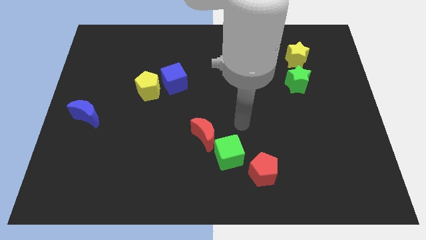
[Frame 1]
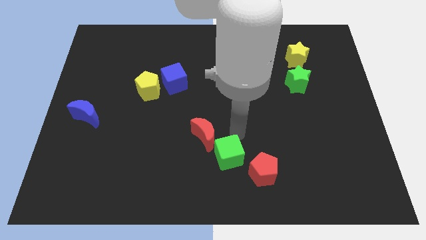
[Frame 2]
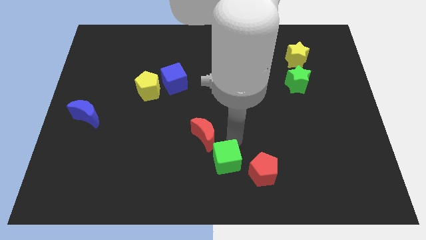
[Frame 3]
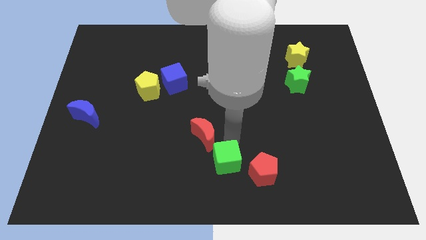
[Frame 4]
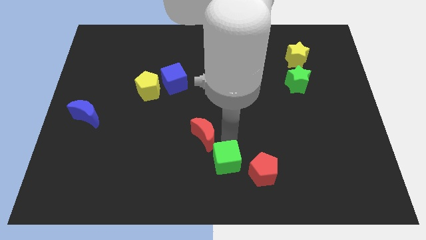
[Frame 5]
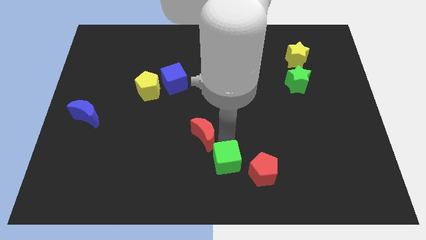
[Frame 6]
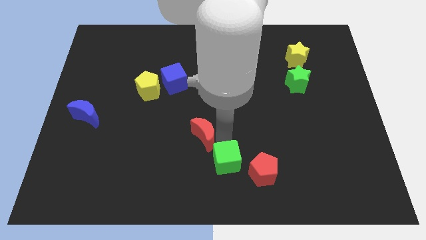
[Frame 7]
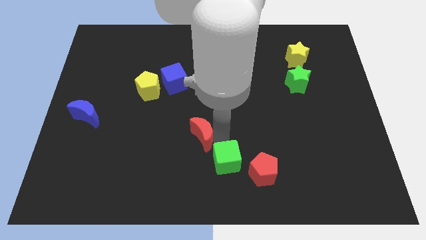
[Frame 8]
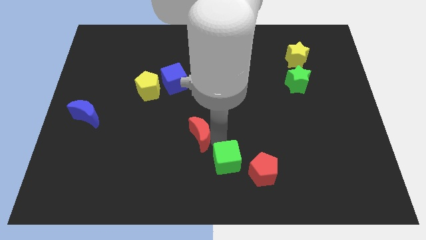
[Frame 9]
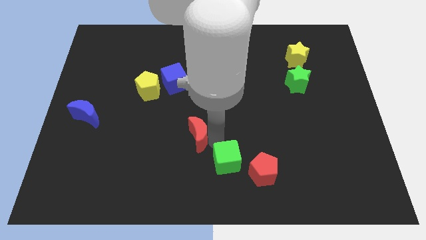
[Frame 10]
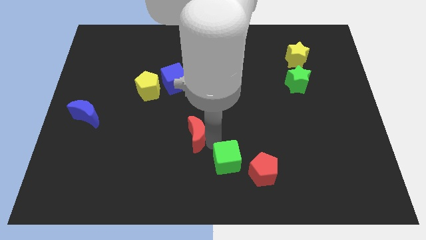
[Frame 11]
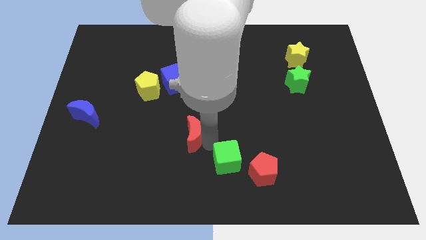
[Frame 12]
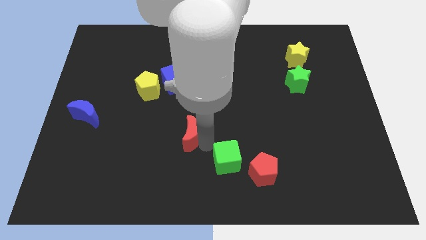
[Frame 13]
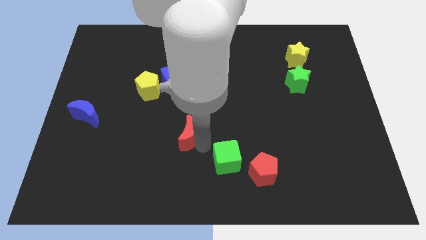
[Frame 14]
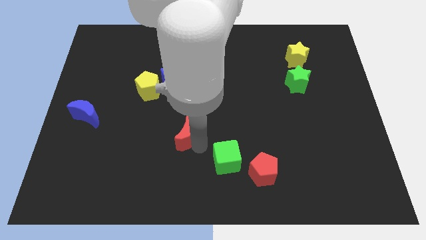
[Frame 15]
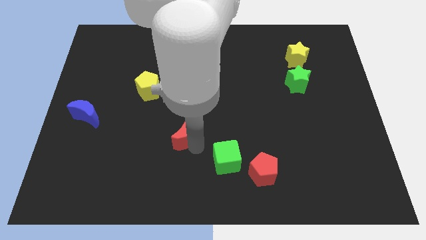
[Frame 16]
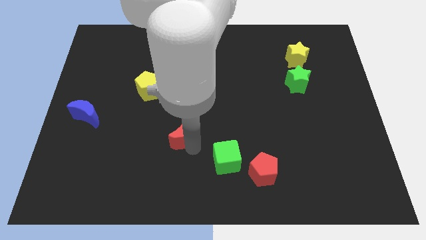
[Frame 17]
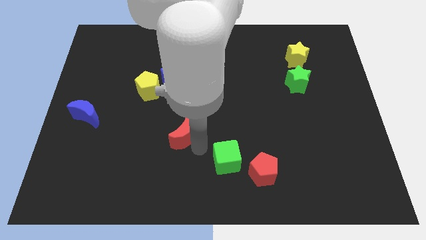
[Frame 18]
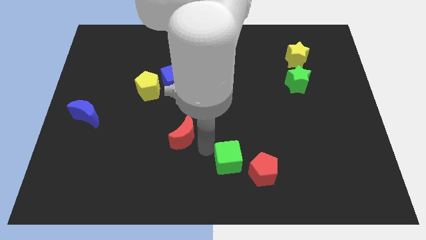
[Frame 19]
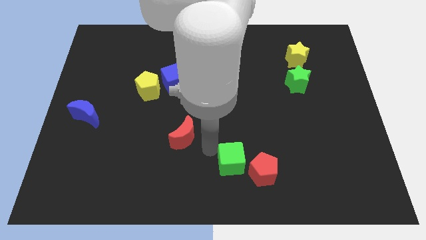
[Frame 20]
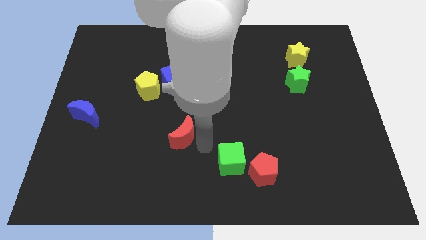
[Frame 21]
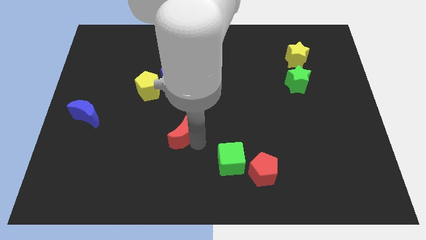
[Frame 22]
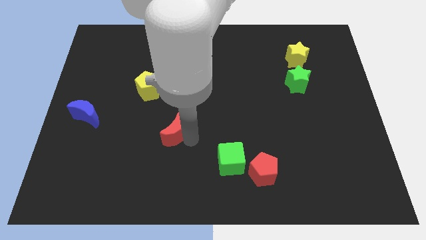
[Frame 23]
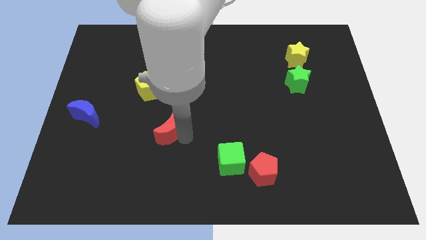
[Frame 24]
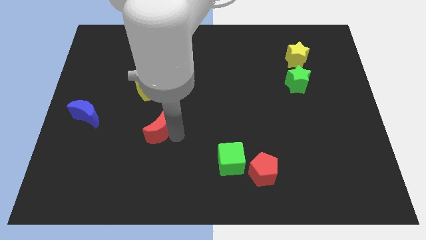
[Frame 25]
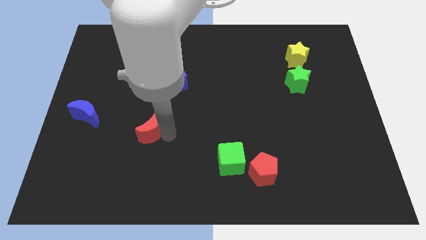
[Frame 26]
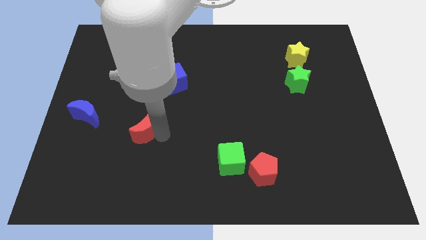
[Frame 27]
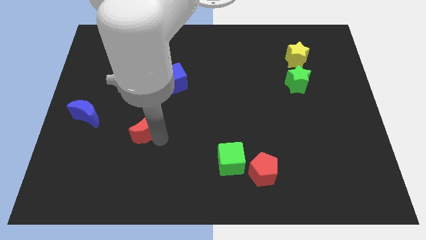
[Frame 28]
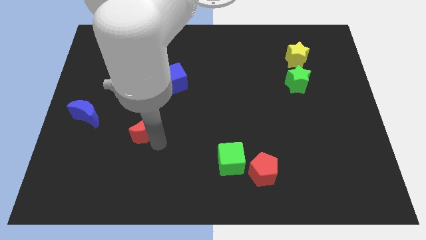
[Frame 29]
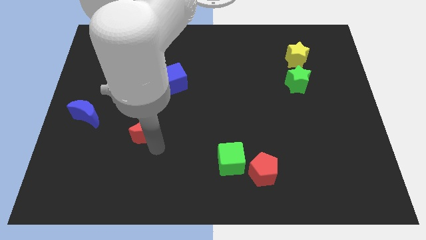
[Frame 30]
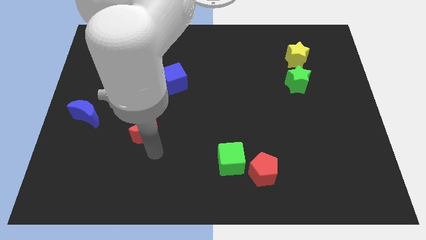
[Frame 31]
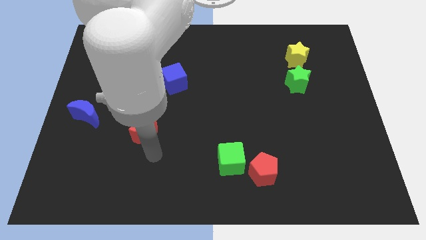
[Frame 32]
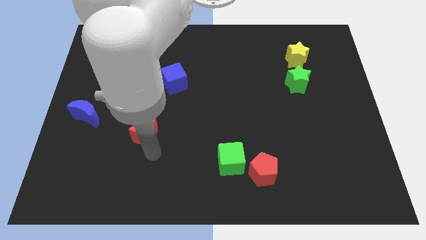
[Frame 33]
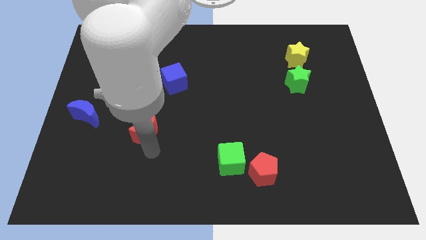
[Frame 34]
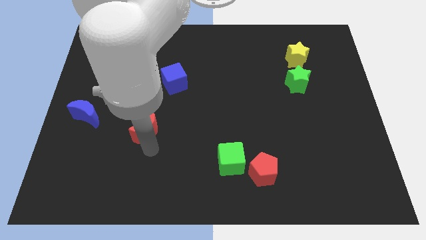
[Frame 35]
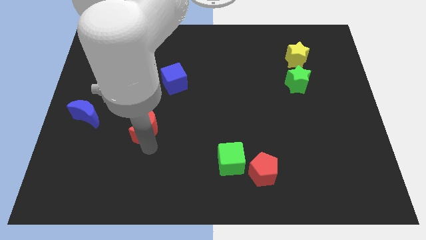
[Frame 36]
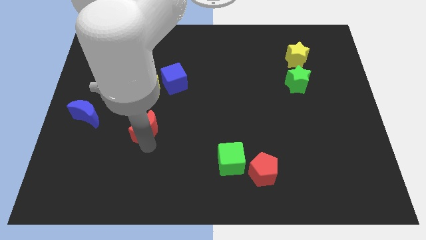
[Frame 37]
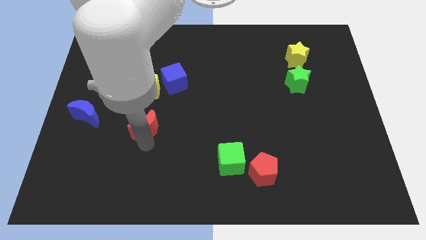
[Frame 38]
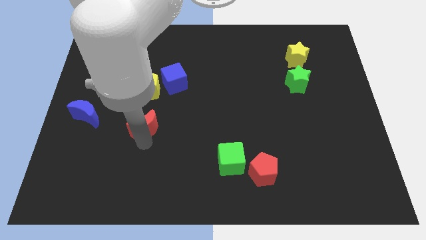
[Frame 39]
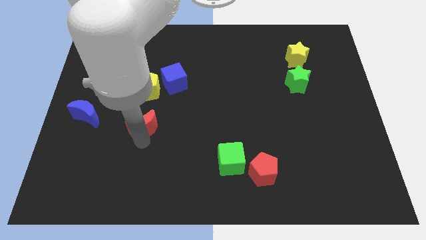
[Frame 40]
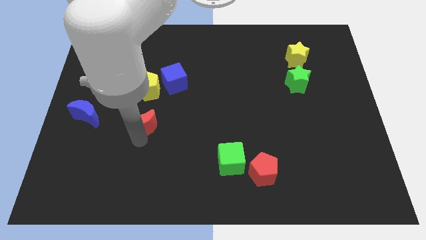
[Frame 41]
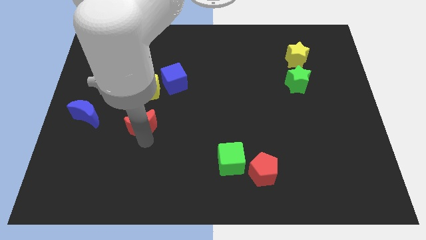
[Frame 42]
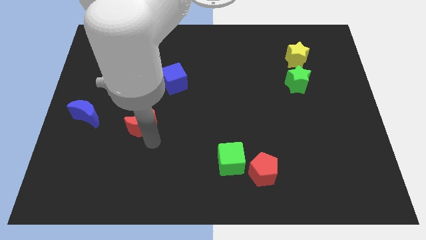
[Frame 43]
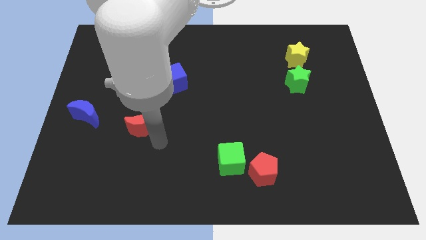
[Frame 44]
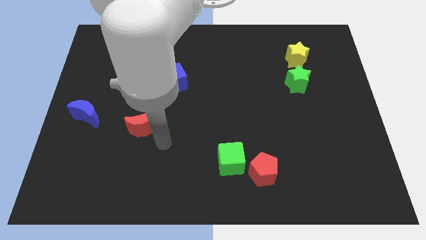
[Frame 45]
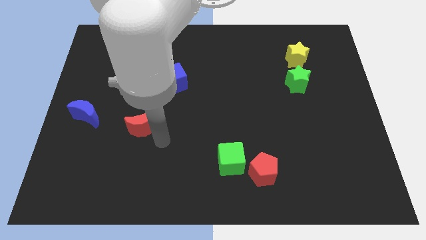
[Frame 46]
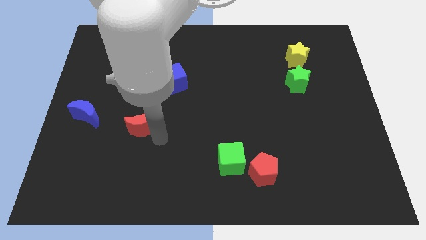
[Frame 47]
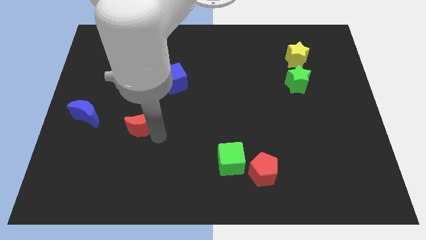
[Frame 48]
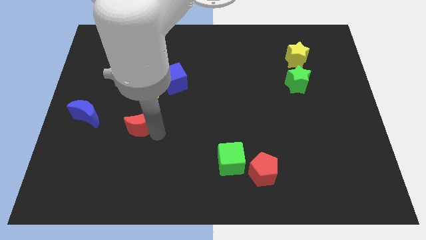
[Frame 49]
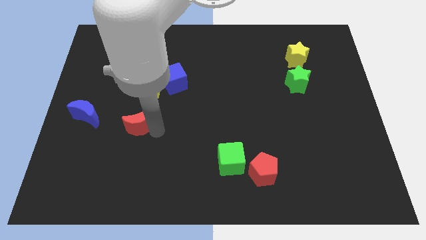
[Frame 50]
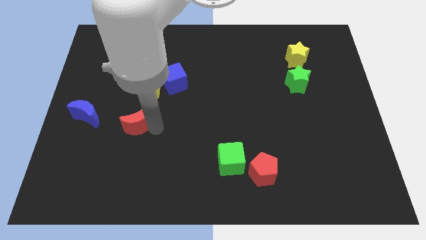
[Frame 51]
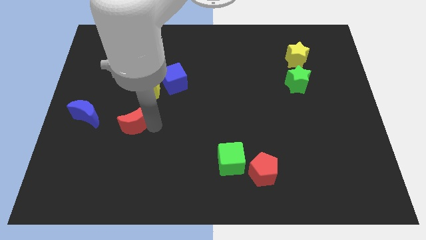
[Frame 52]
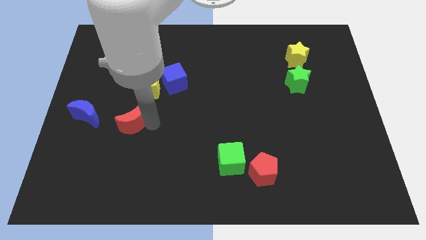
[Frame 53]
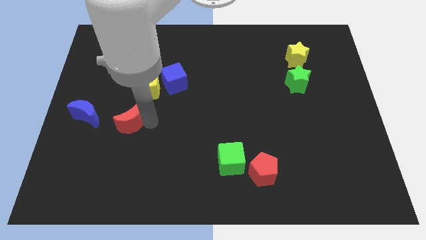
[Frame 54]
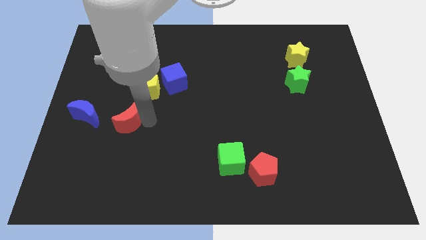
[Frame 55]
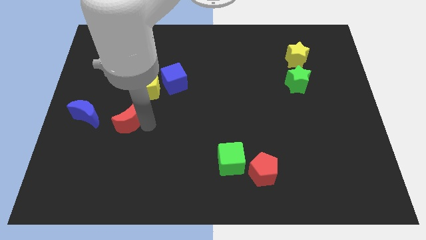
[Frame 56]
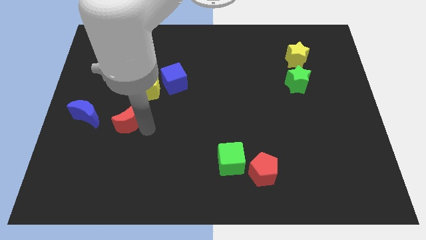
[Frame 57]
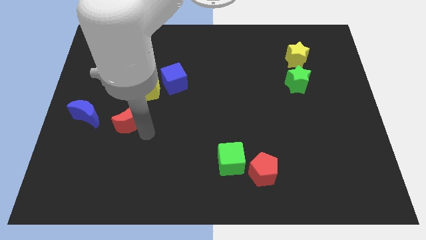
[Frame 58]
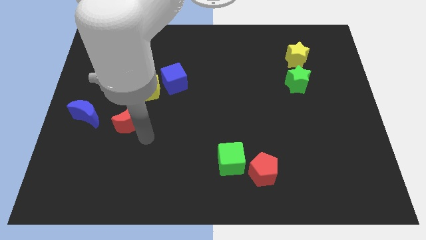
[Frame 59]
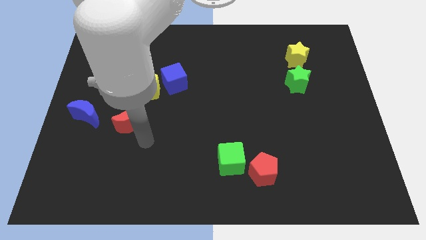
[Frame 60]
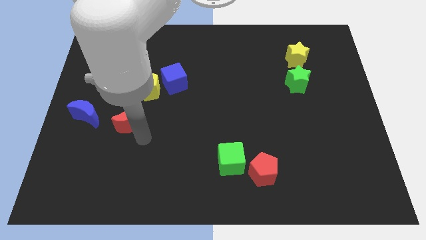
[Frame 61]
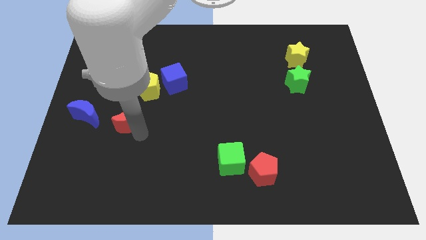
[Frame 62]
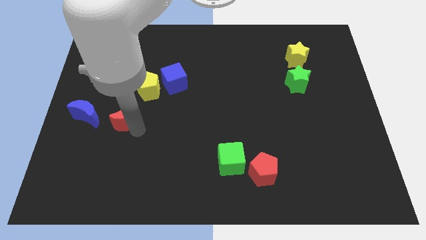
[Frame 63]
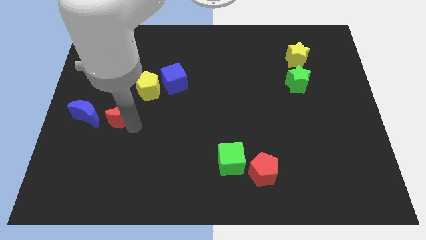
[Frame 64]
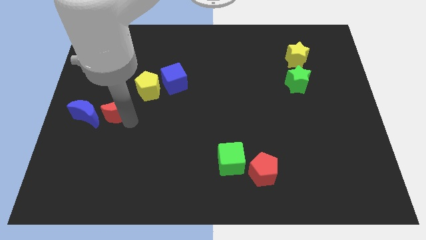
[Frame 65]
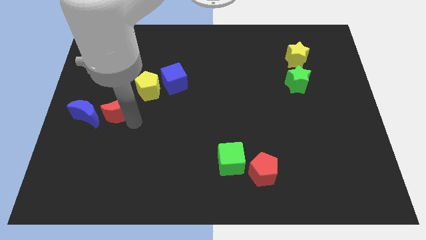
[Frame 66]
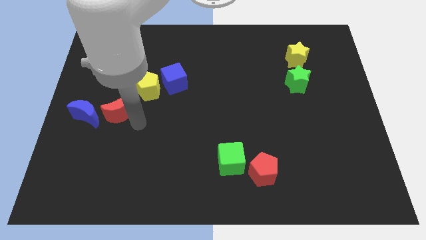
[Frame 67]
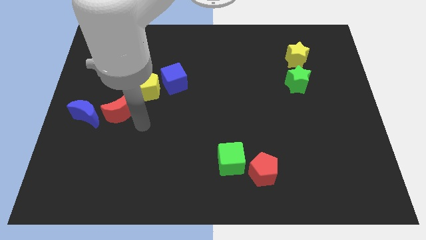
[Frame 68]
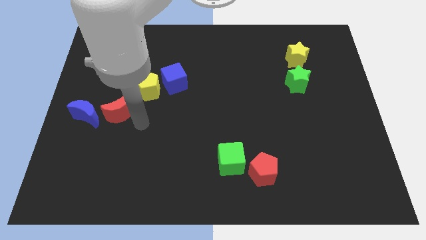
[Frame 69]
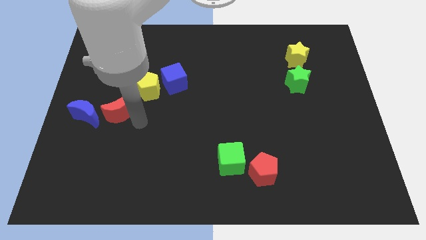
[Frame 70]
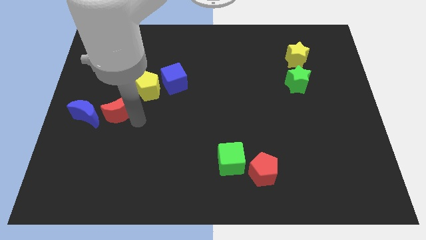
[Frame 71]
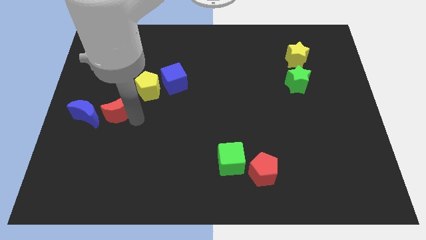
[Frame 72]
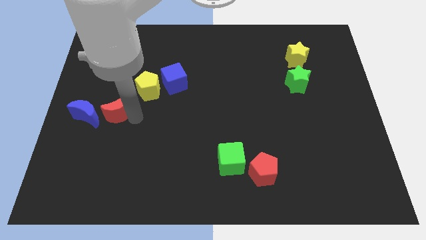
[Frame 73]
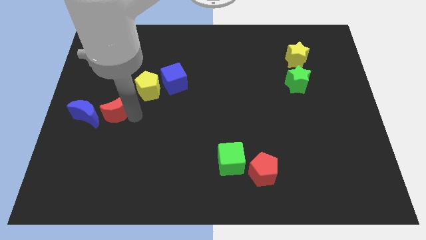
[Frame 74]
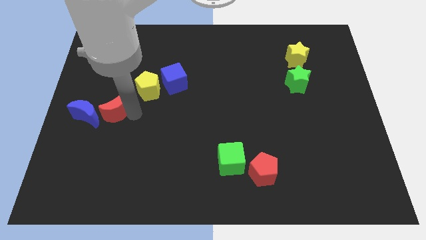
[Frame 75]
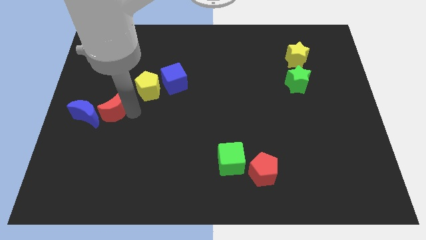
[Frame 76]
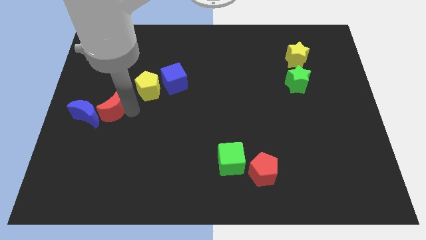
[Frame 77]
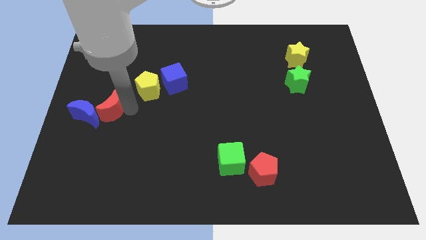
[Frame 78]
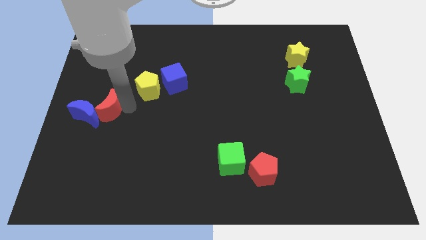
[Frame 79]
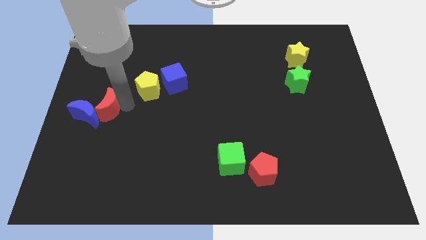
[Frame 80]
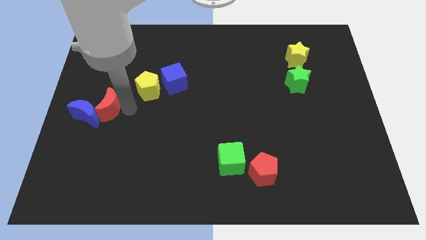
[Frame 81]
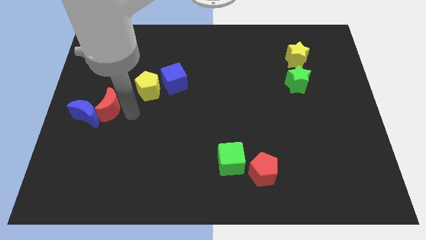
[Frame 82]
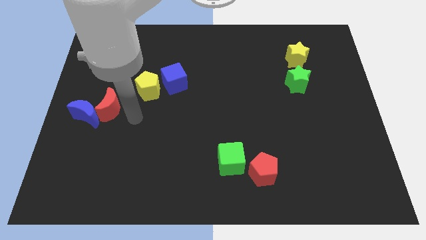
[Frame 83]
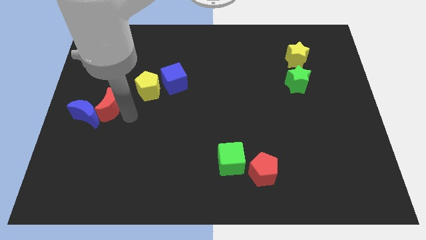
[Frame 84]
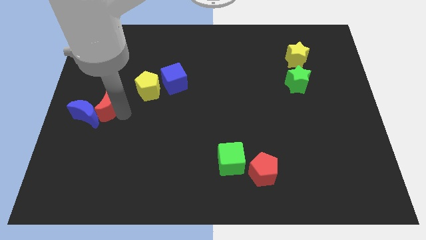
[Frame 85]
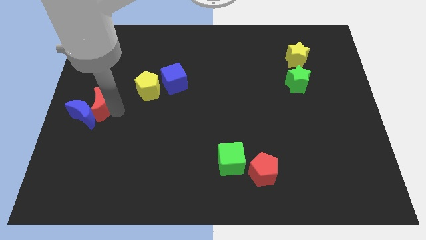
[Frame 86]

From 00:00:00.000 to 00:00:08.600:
put the red moon to the center left
